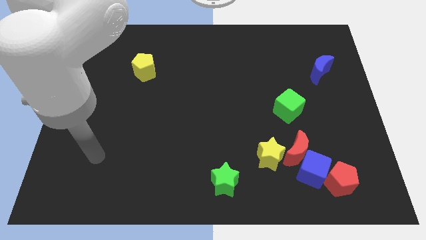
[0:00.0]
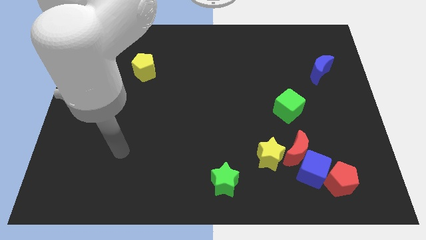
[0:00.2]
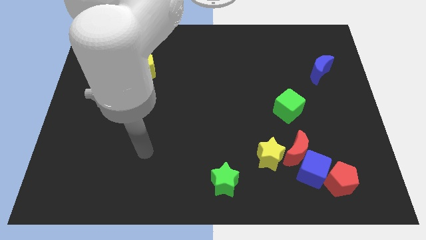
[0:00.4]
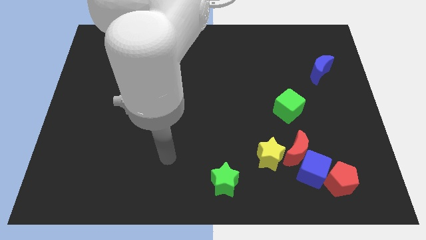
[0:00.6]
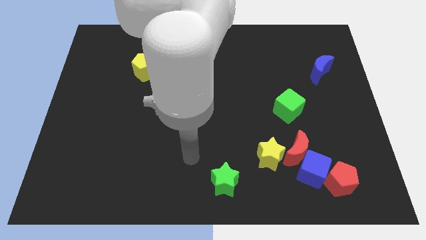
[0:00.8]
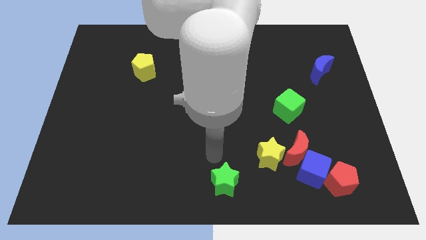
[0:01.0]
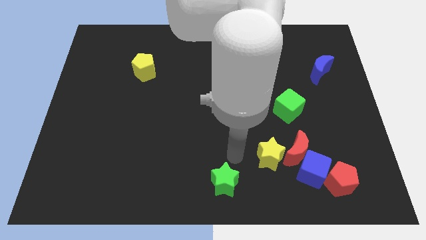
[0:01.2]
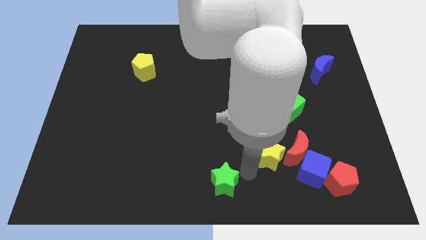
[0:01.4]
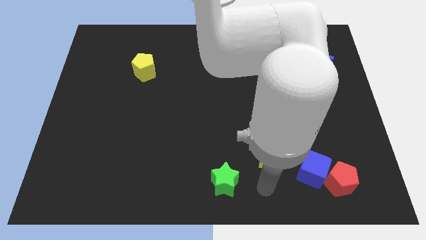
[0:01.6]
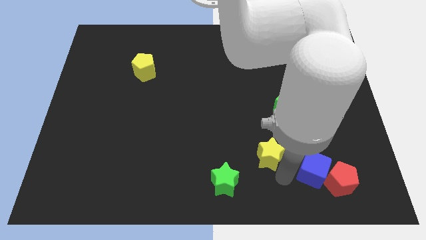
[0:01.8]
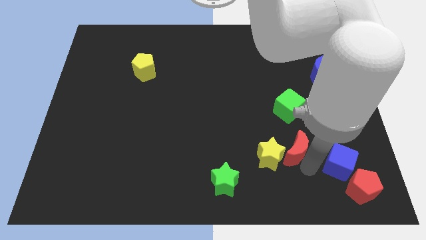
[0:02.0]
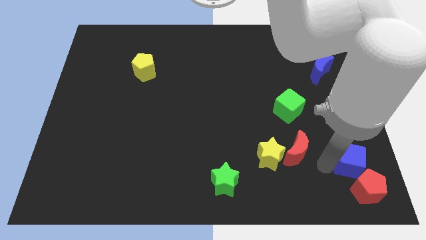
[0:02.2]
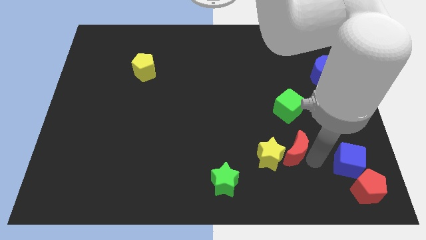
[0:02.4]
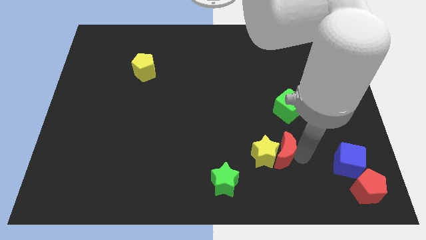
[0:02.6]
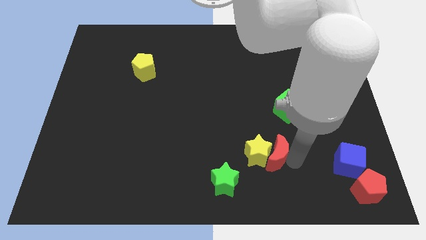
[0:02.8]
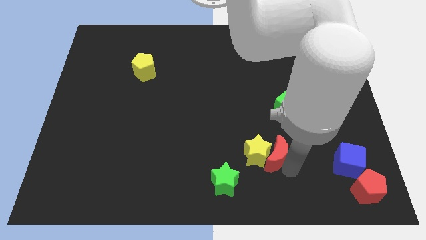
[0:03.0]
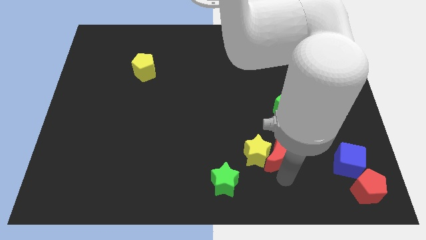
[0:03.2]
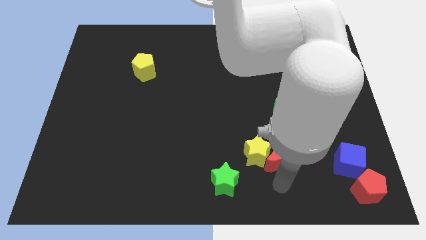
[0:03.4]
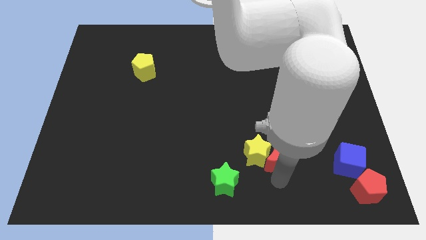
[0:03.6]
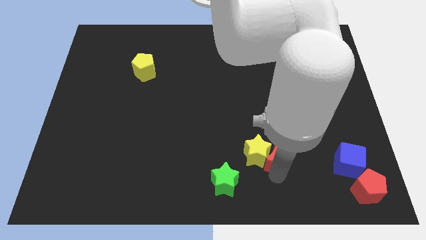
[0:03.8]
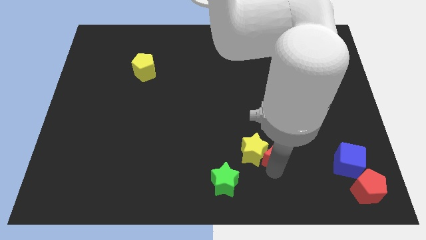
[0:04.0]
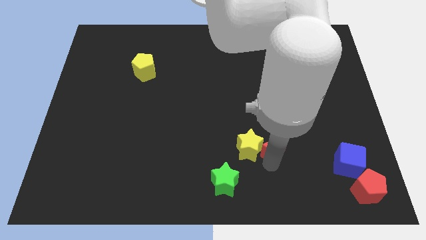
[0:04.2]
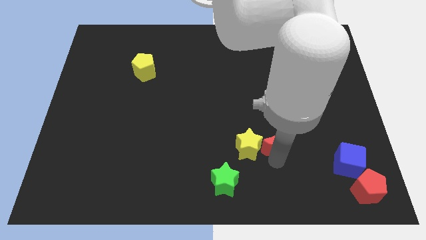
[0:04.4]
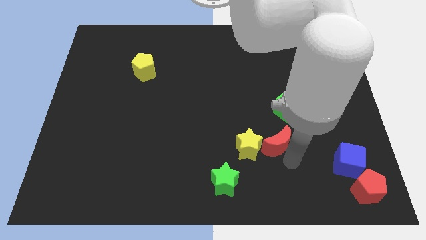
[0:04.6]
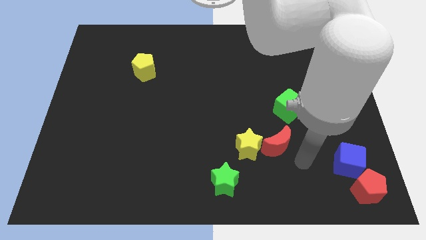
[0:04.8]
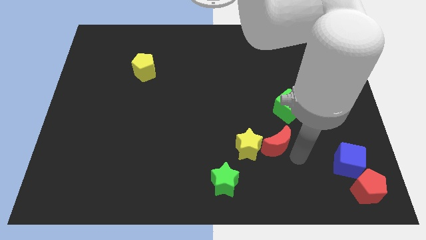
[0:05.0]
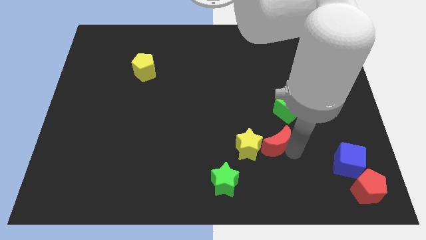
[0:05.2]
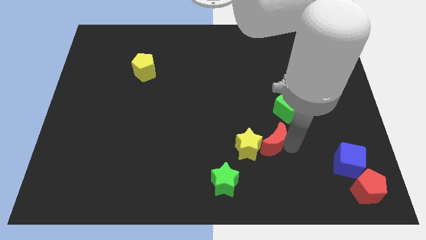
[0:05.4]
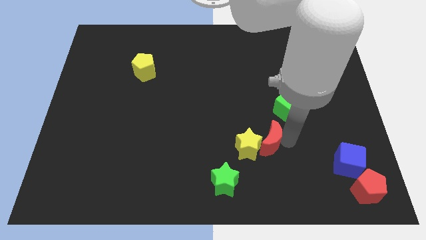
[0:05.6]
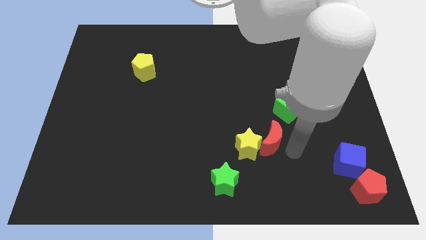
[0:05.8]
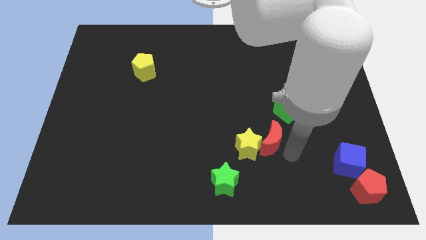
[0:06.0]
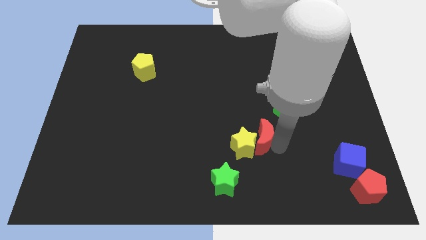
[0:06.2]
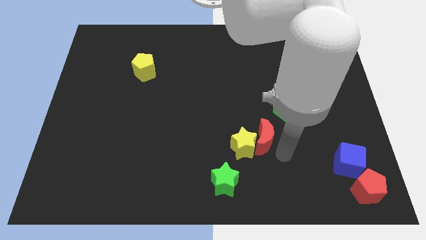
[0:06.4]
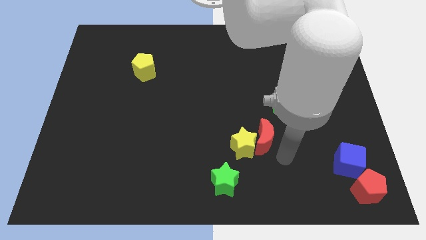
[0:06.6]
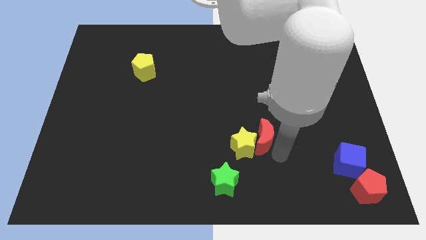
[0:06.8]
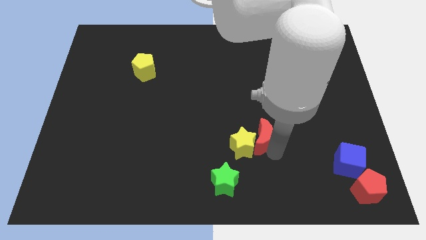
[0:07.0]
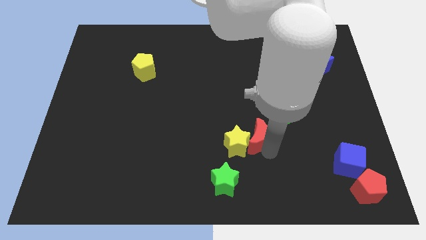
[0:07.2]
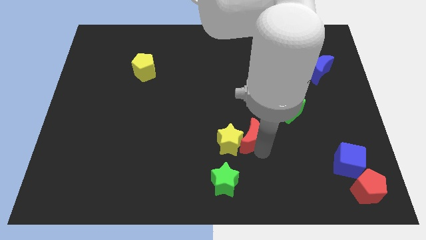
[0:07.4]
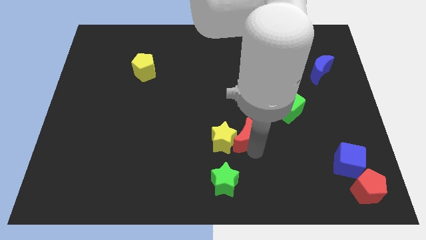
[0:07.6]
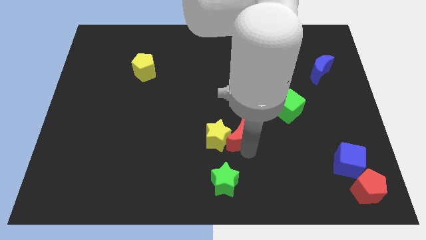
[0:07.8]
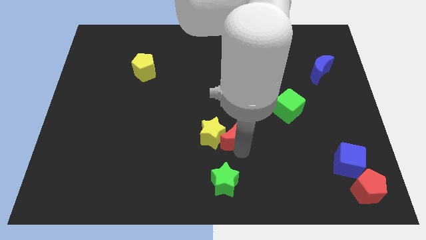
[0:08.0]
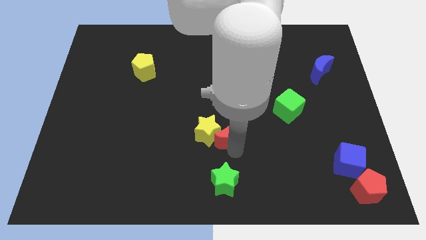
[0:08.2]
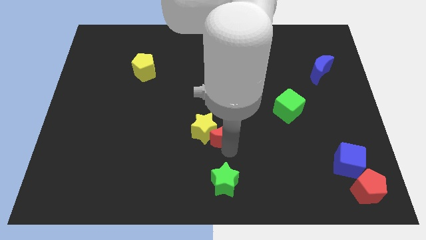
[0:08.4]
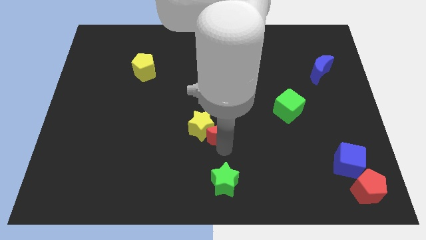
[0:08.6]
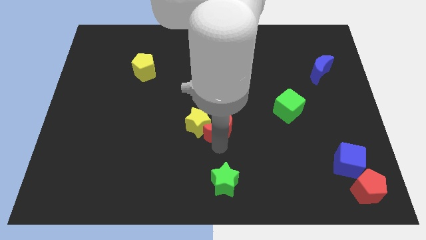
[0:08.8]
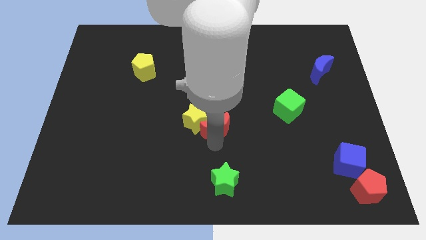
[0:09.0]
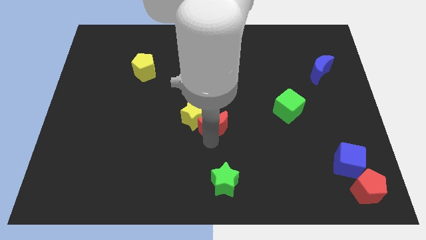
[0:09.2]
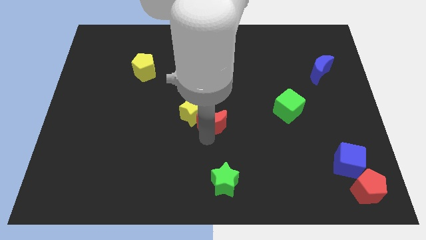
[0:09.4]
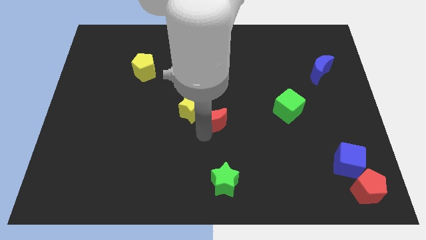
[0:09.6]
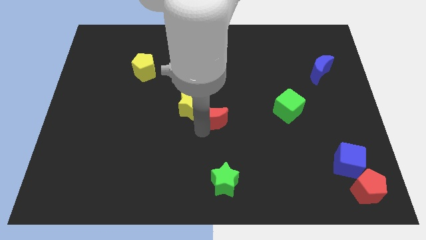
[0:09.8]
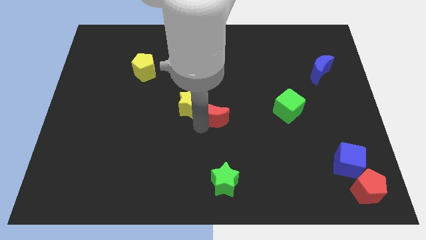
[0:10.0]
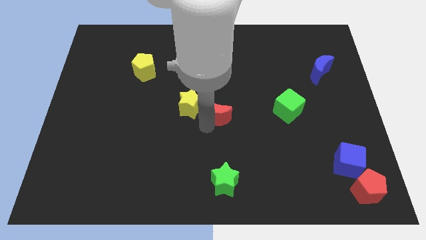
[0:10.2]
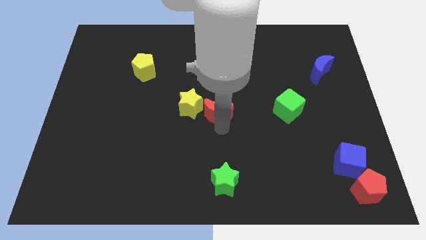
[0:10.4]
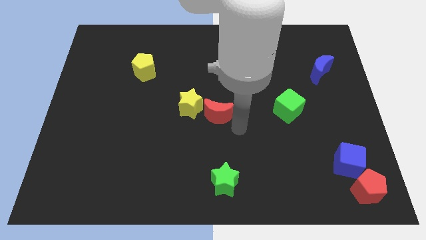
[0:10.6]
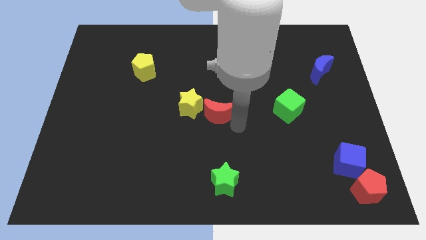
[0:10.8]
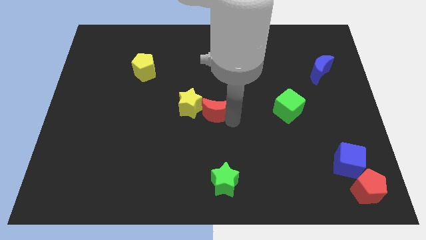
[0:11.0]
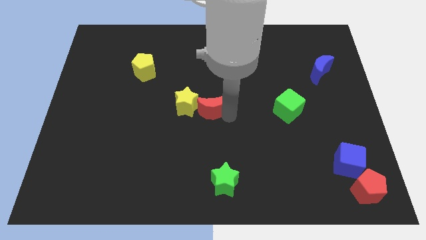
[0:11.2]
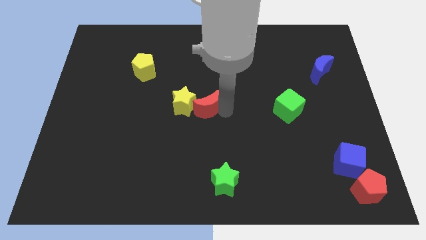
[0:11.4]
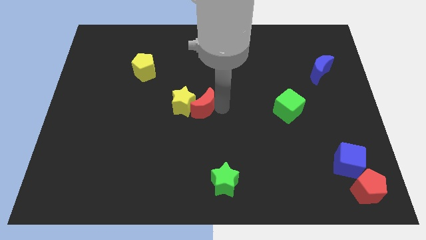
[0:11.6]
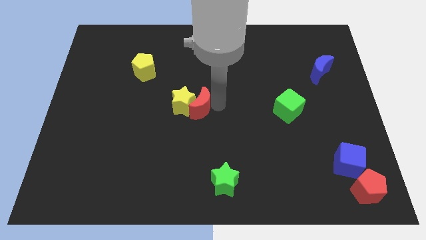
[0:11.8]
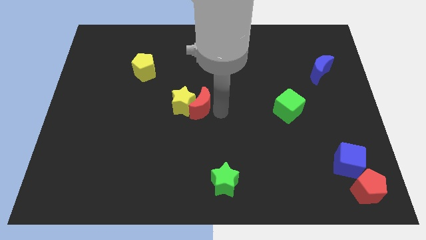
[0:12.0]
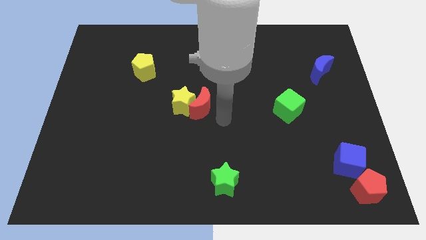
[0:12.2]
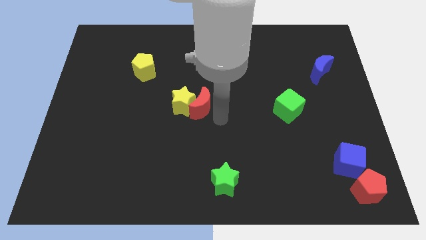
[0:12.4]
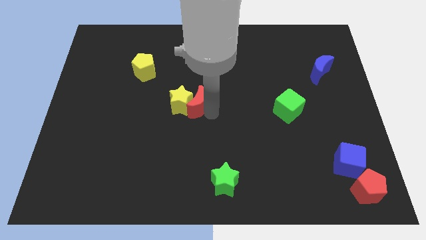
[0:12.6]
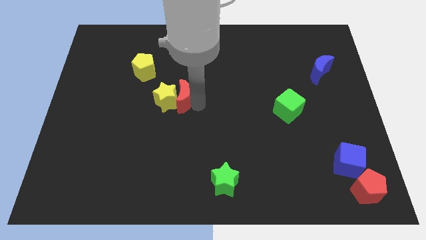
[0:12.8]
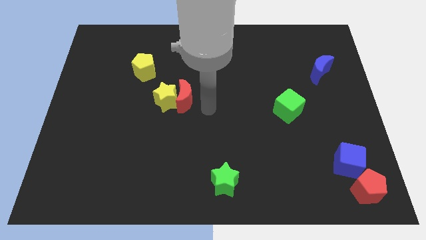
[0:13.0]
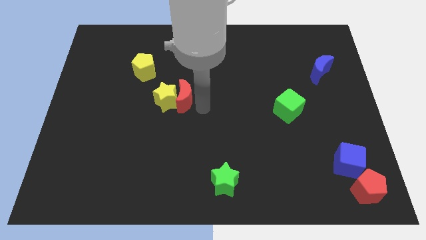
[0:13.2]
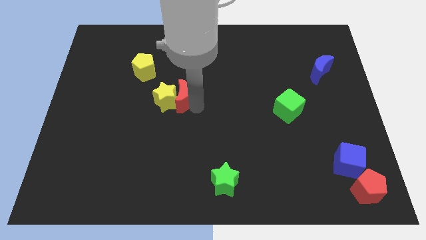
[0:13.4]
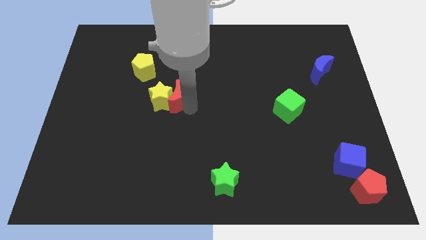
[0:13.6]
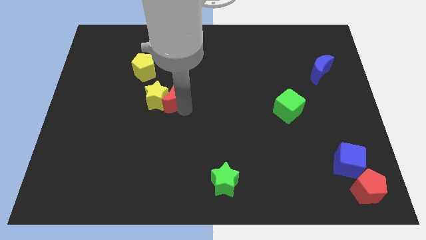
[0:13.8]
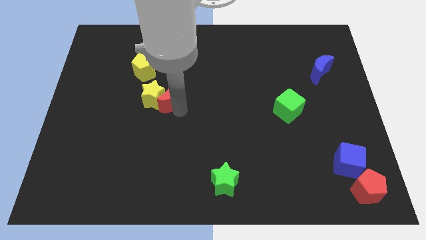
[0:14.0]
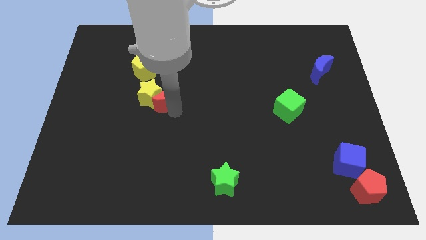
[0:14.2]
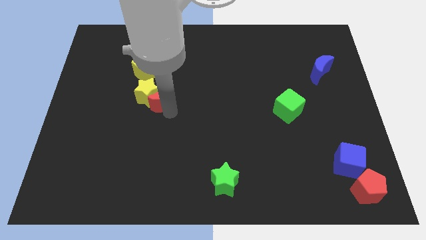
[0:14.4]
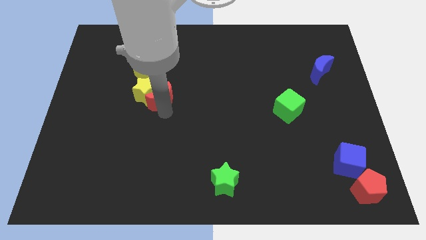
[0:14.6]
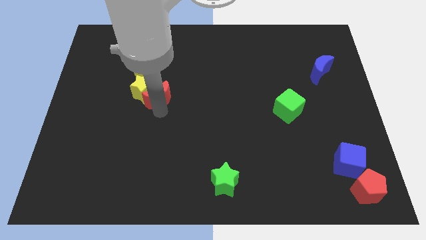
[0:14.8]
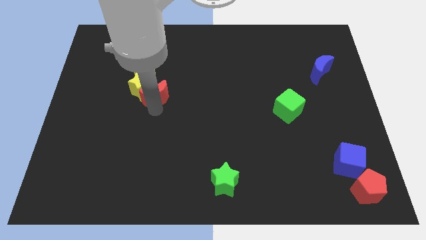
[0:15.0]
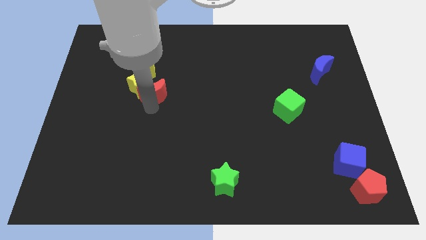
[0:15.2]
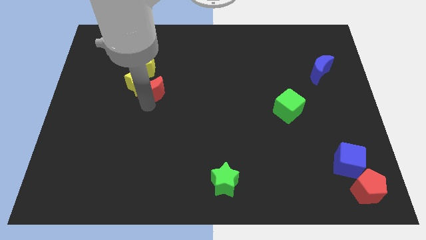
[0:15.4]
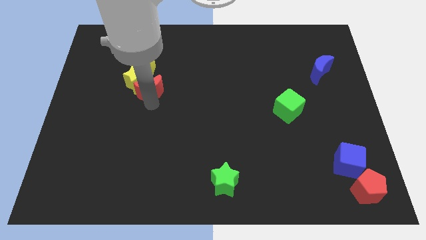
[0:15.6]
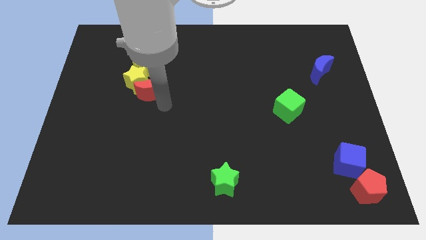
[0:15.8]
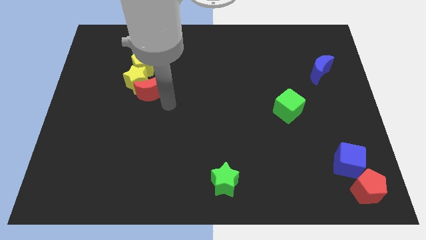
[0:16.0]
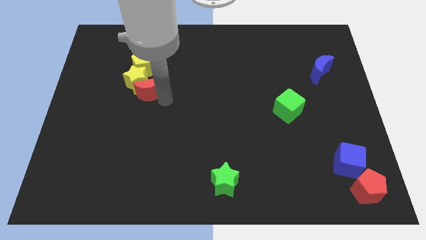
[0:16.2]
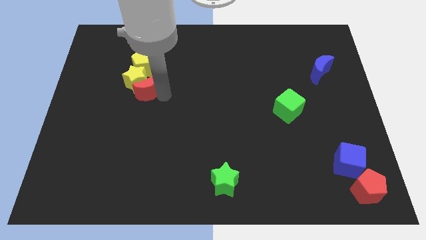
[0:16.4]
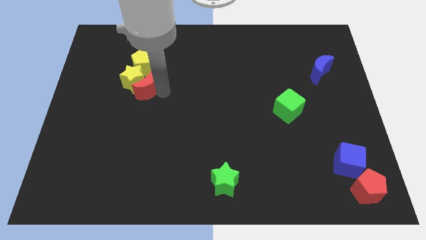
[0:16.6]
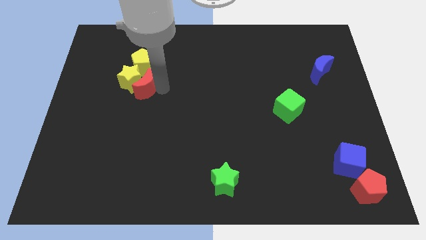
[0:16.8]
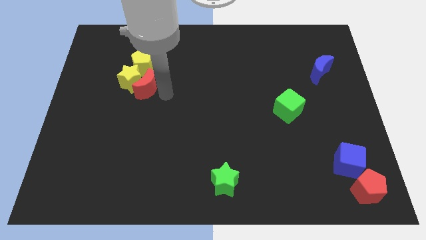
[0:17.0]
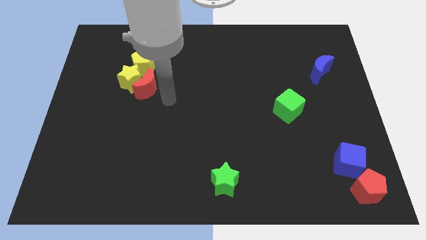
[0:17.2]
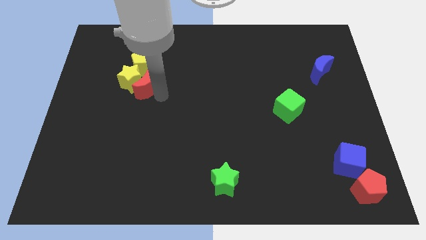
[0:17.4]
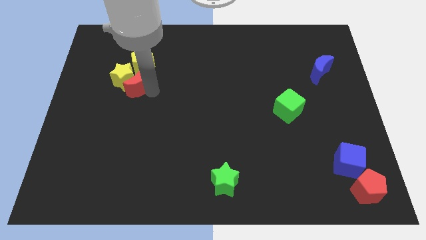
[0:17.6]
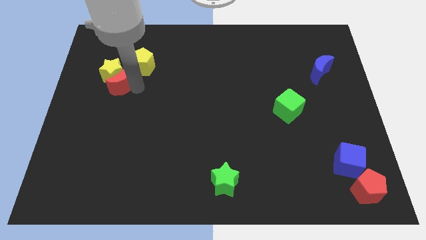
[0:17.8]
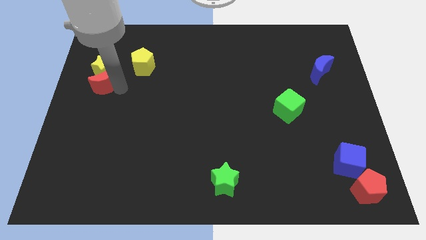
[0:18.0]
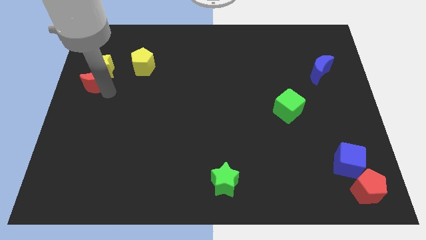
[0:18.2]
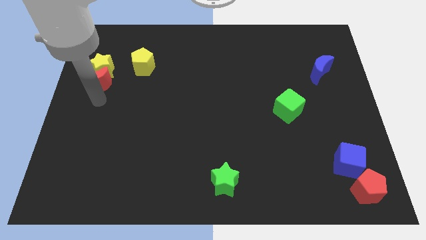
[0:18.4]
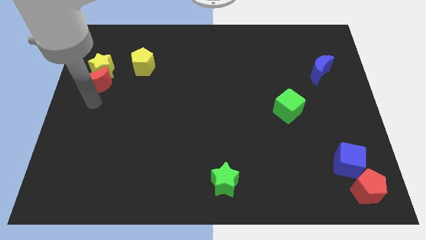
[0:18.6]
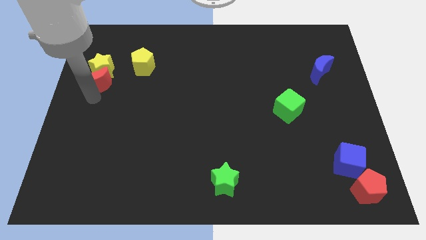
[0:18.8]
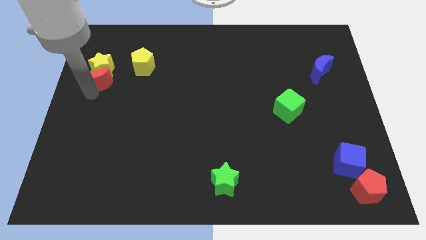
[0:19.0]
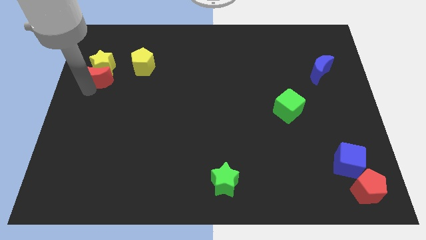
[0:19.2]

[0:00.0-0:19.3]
push the red moon left of the yellow pentagon
